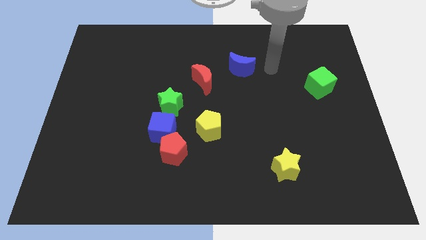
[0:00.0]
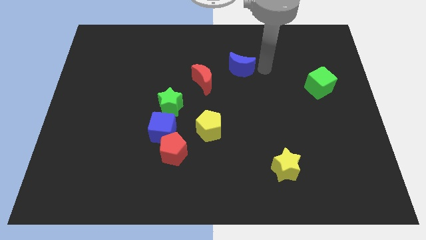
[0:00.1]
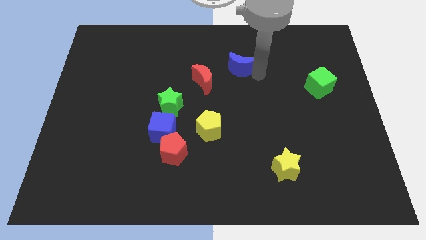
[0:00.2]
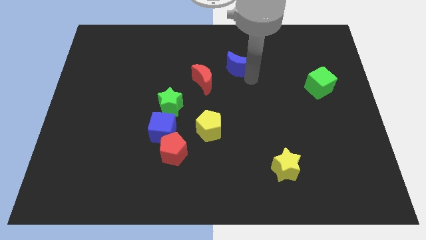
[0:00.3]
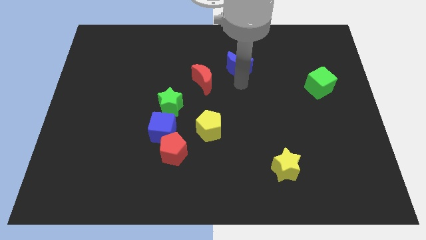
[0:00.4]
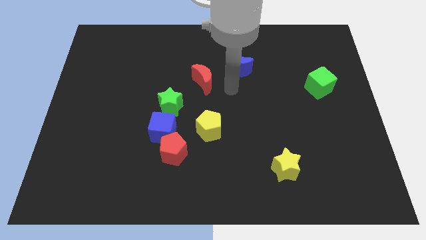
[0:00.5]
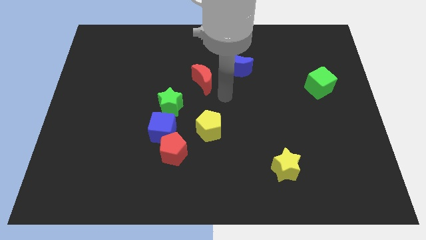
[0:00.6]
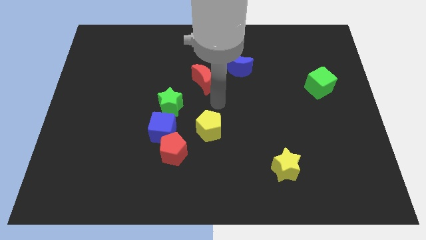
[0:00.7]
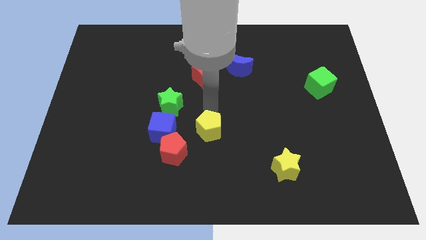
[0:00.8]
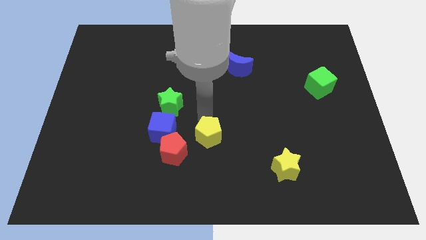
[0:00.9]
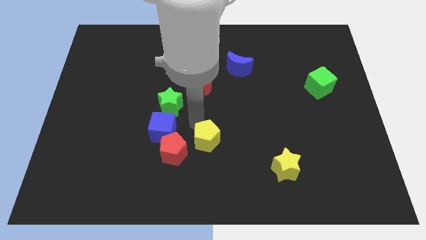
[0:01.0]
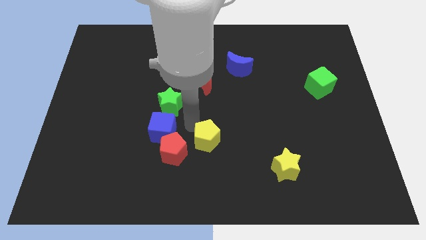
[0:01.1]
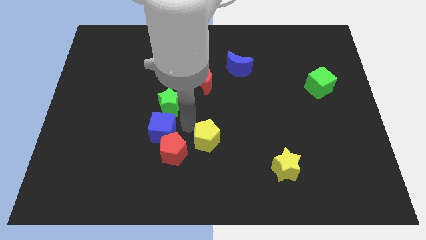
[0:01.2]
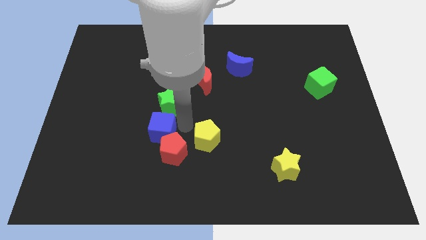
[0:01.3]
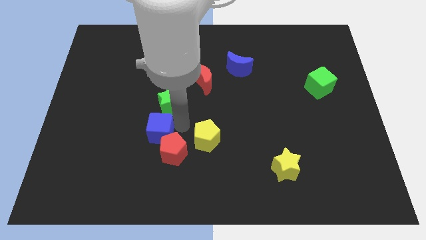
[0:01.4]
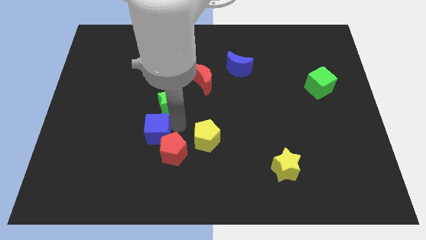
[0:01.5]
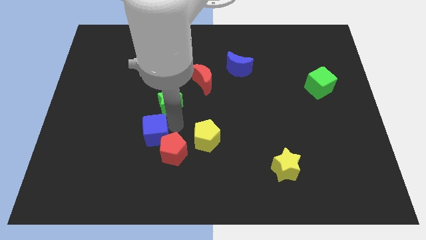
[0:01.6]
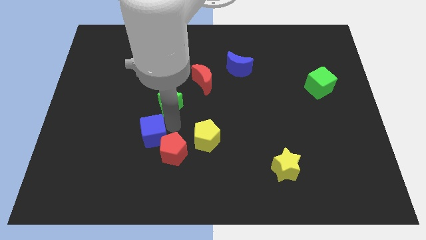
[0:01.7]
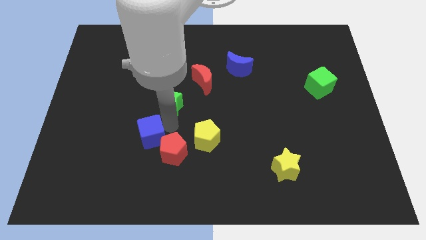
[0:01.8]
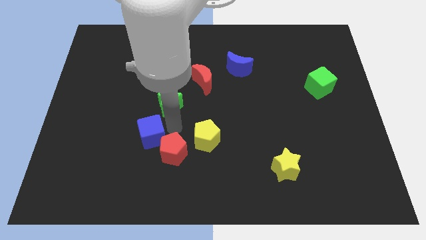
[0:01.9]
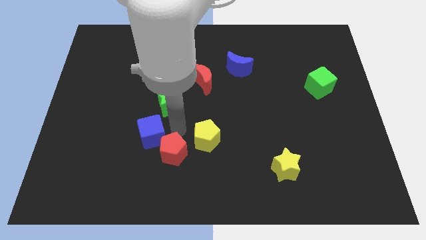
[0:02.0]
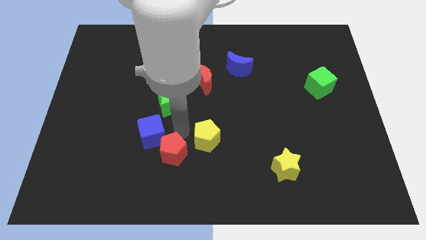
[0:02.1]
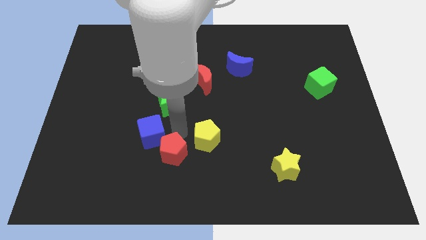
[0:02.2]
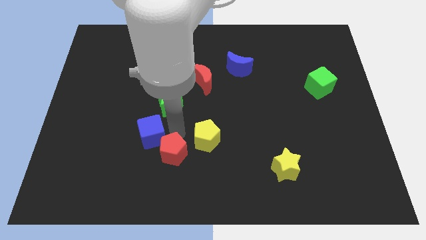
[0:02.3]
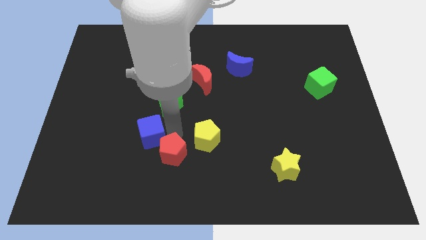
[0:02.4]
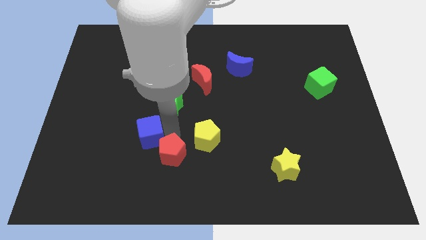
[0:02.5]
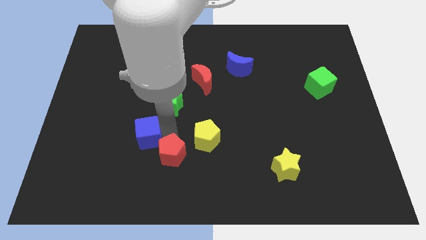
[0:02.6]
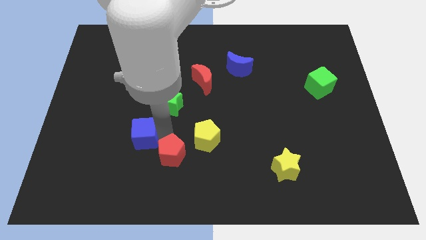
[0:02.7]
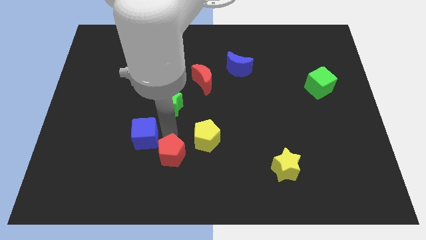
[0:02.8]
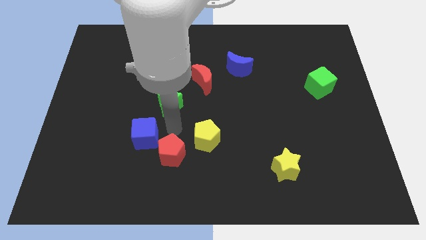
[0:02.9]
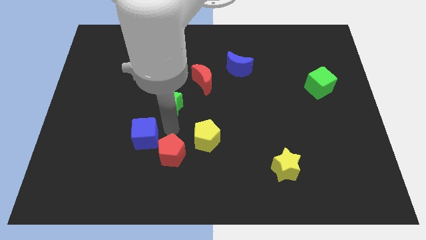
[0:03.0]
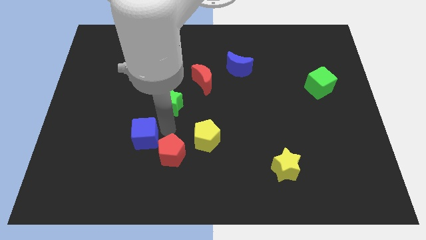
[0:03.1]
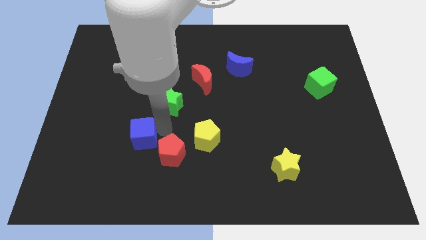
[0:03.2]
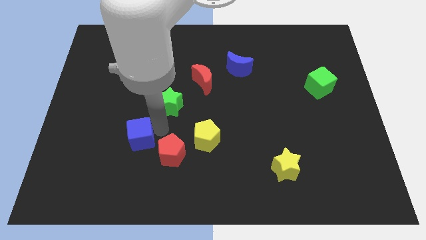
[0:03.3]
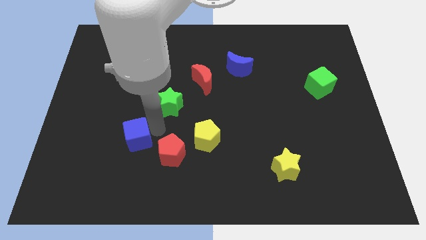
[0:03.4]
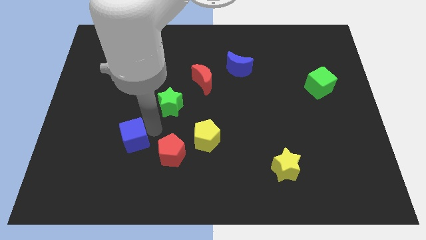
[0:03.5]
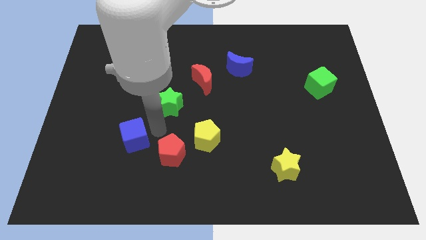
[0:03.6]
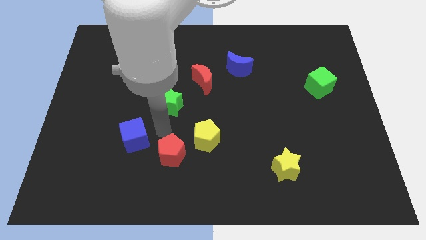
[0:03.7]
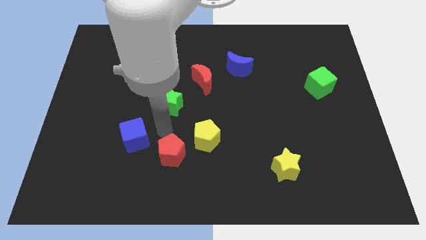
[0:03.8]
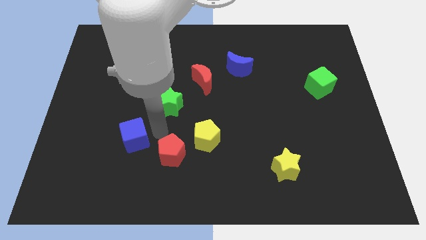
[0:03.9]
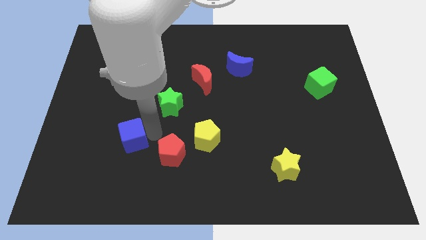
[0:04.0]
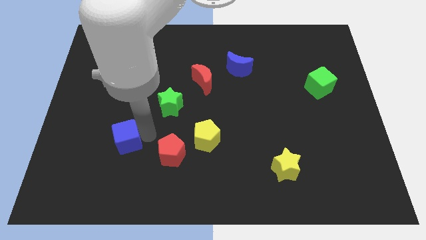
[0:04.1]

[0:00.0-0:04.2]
move the blue cube away from the red pentagon and green star

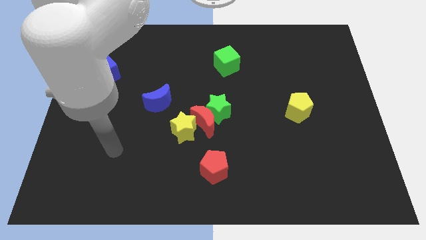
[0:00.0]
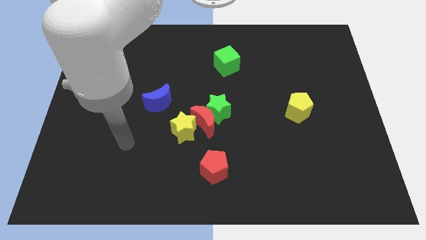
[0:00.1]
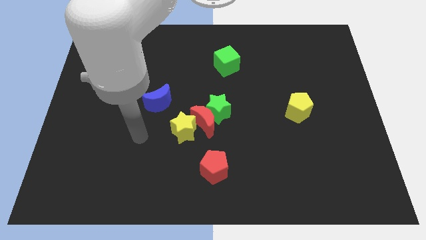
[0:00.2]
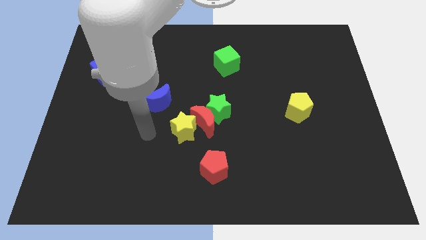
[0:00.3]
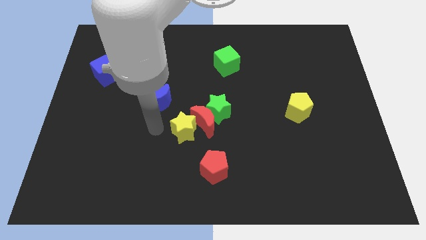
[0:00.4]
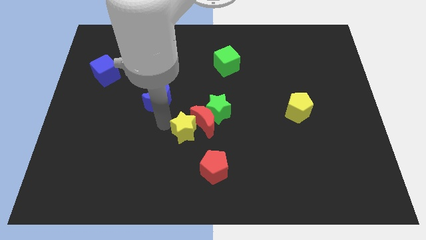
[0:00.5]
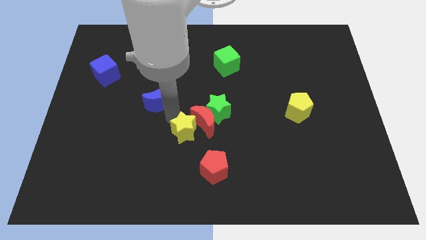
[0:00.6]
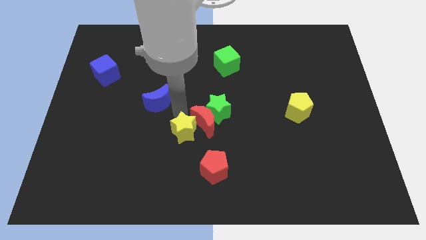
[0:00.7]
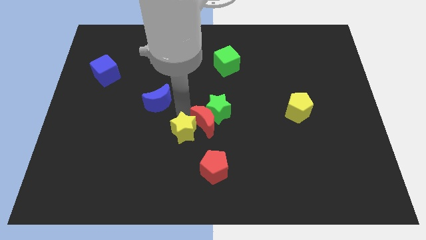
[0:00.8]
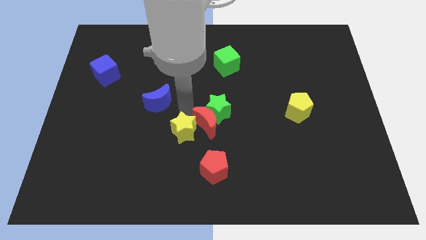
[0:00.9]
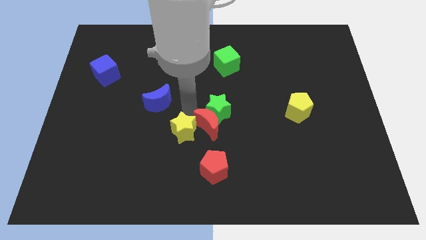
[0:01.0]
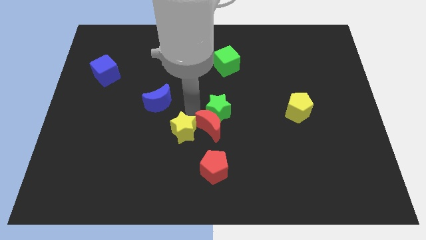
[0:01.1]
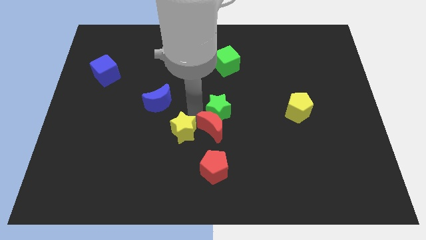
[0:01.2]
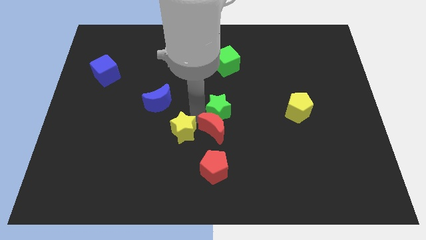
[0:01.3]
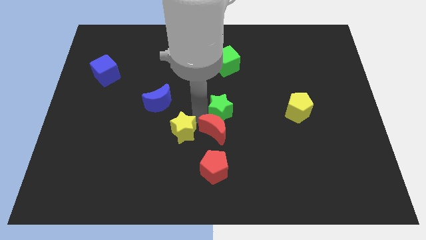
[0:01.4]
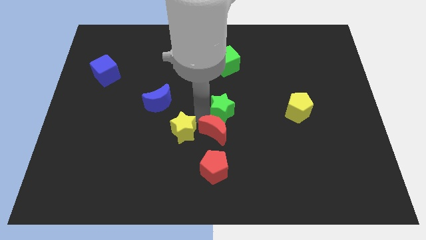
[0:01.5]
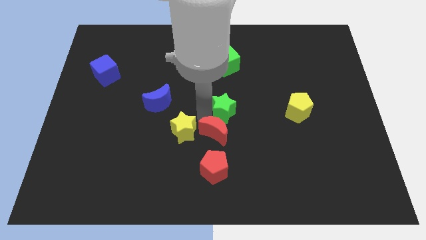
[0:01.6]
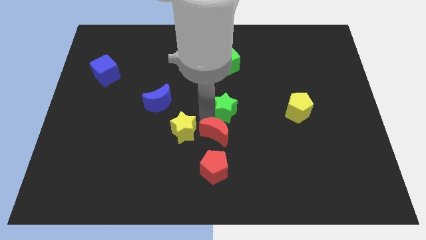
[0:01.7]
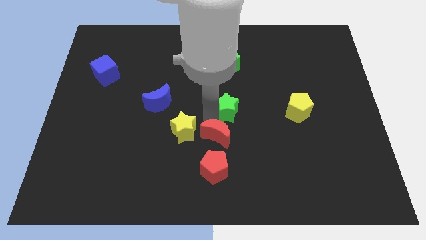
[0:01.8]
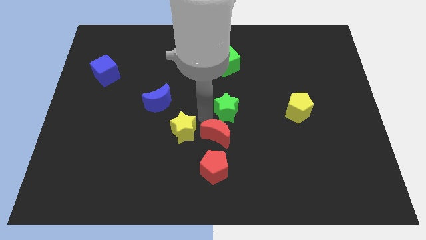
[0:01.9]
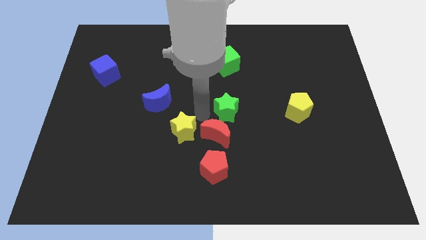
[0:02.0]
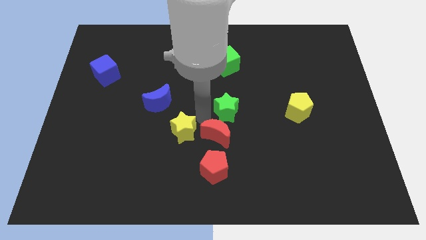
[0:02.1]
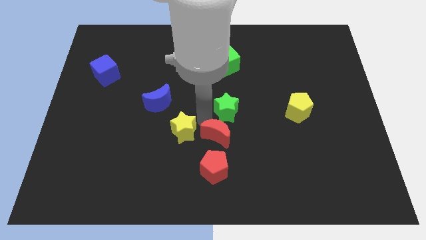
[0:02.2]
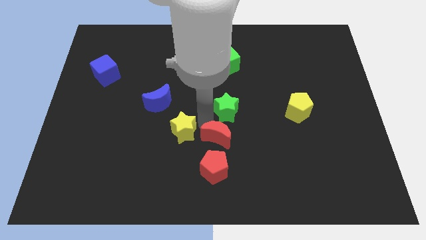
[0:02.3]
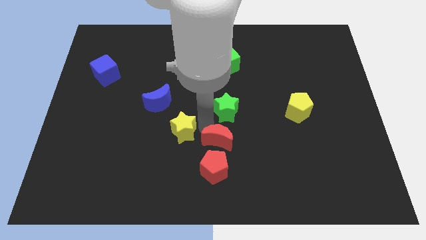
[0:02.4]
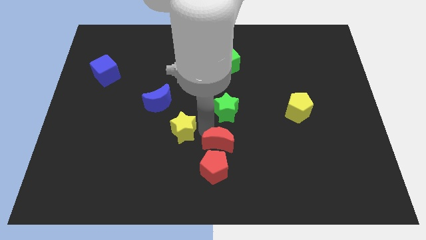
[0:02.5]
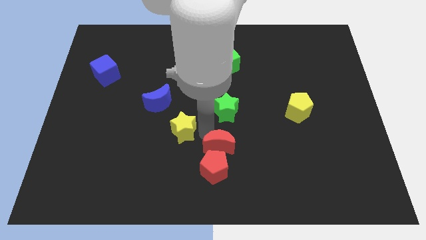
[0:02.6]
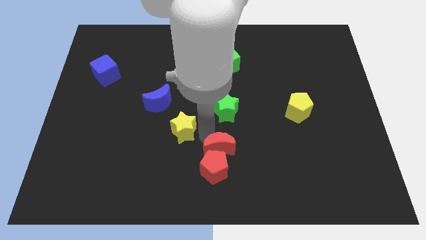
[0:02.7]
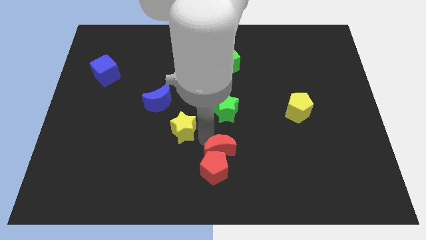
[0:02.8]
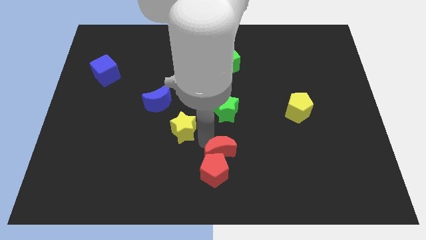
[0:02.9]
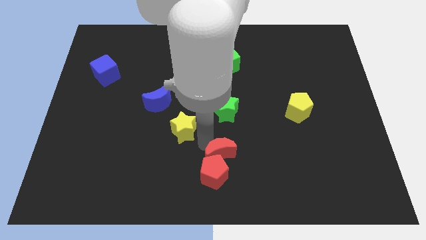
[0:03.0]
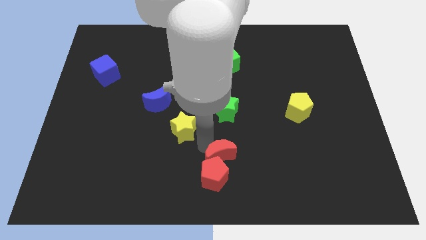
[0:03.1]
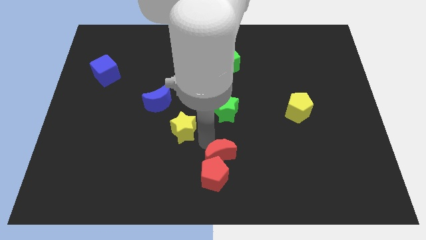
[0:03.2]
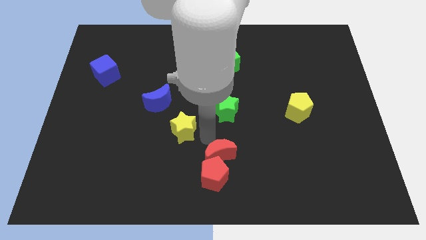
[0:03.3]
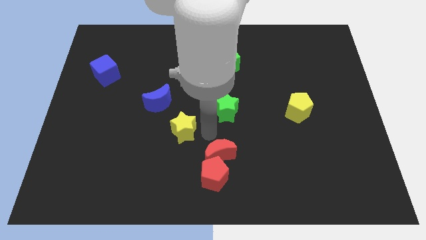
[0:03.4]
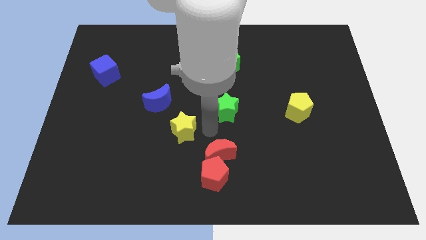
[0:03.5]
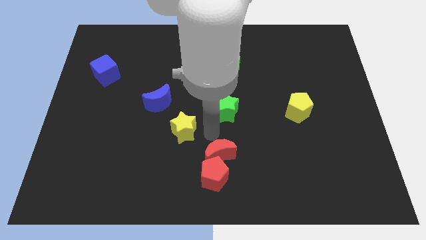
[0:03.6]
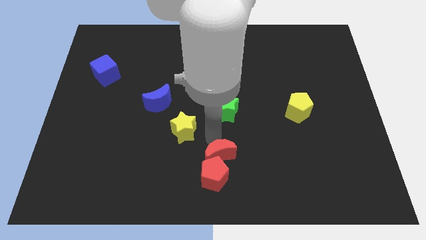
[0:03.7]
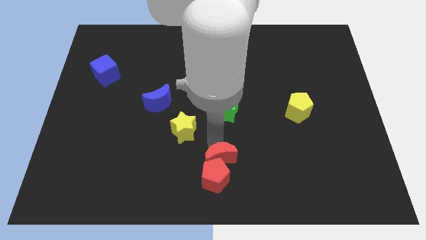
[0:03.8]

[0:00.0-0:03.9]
move the red moon away from the green star and yellow star

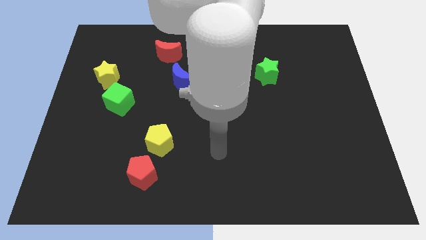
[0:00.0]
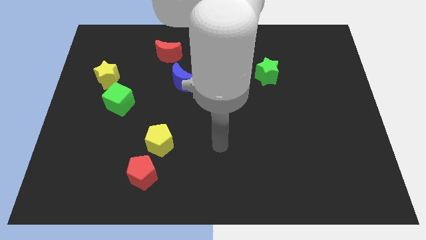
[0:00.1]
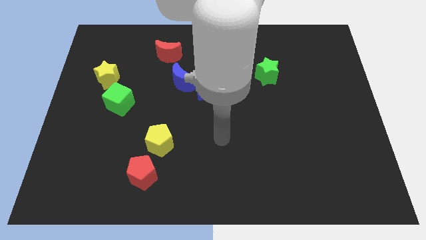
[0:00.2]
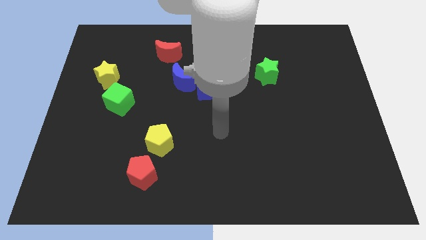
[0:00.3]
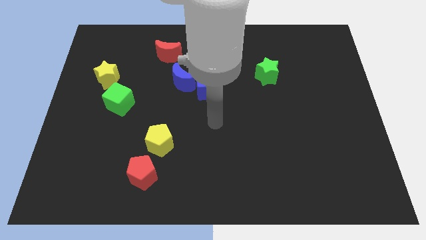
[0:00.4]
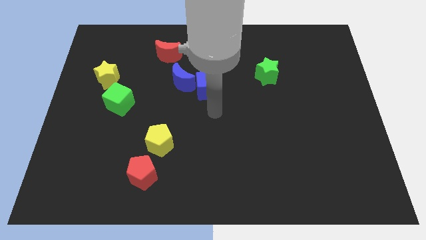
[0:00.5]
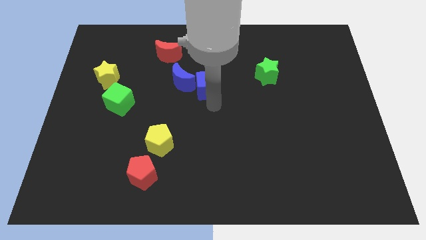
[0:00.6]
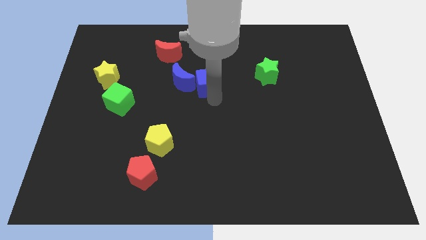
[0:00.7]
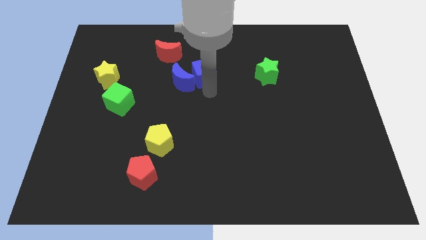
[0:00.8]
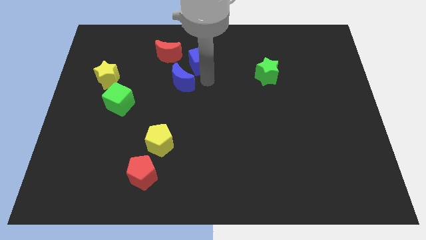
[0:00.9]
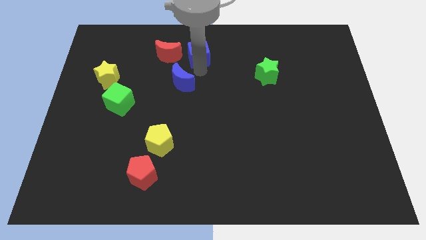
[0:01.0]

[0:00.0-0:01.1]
move the blue moon away from the blue cube

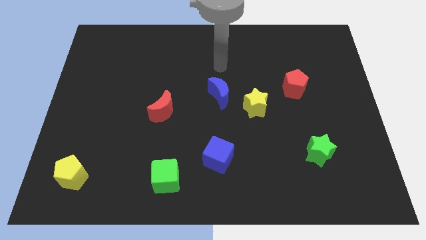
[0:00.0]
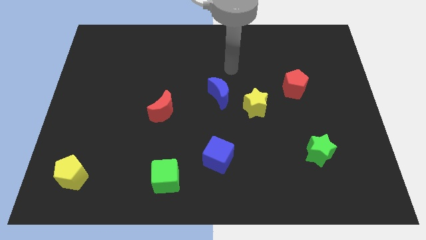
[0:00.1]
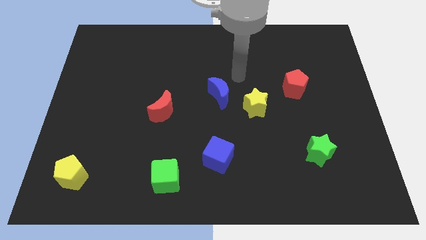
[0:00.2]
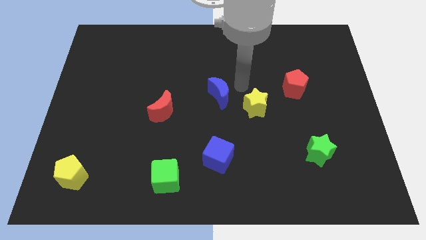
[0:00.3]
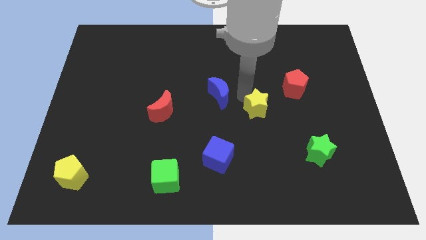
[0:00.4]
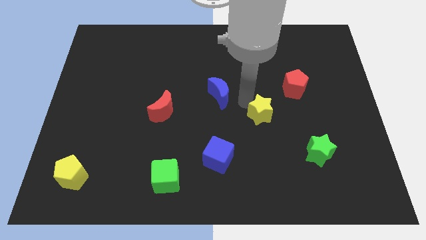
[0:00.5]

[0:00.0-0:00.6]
pull the blue moon apart from the yellow star
